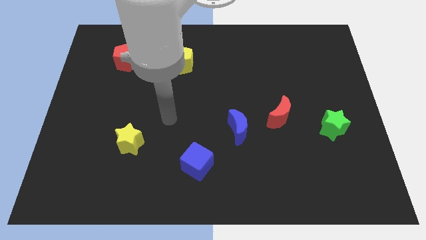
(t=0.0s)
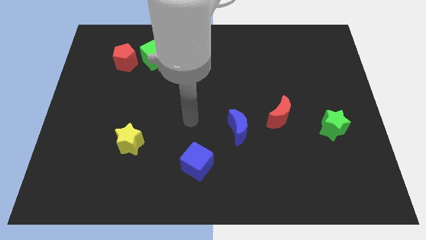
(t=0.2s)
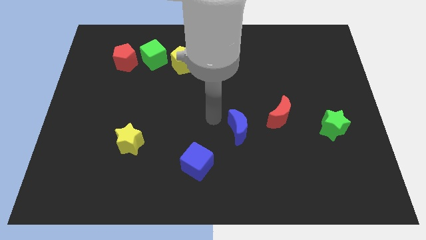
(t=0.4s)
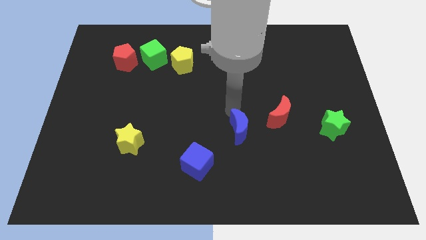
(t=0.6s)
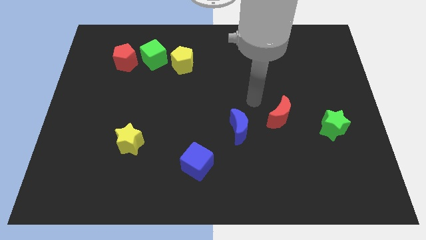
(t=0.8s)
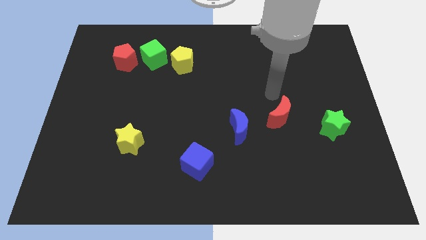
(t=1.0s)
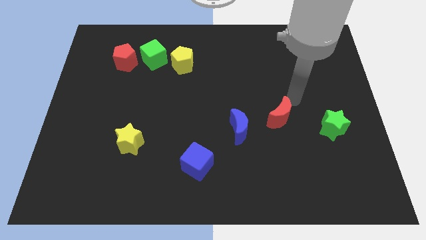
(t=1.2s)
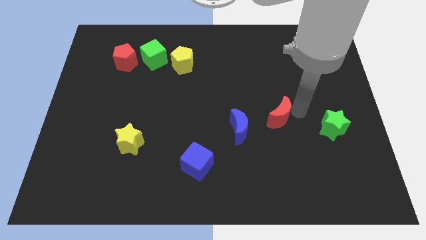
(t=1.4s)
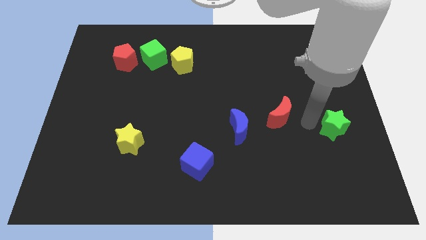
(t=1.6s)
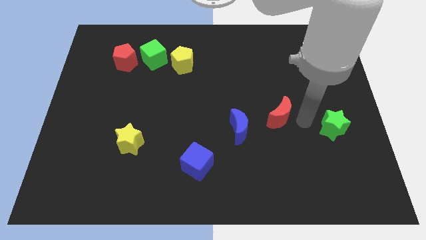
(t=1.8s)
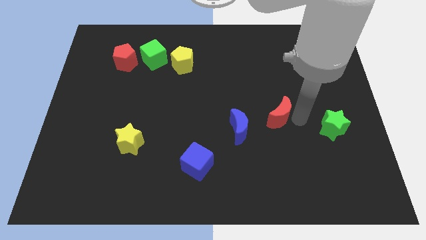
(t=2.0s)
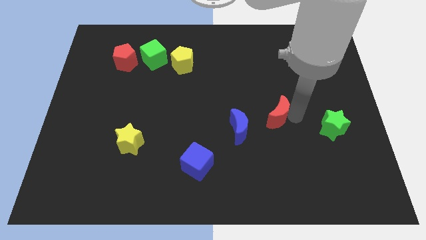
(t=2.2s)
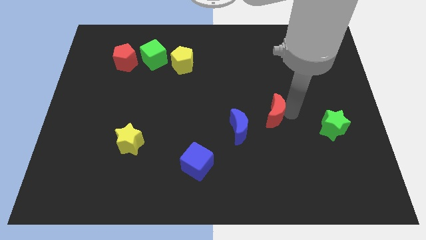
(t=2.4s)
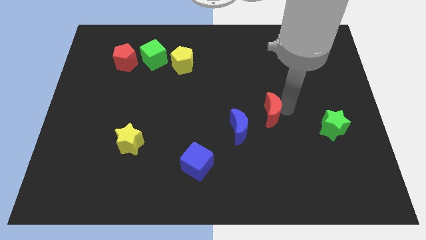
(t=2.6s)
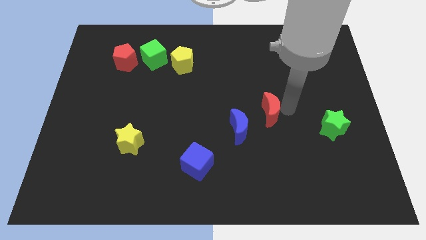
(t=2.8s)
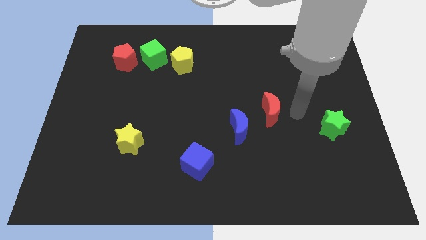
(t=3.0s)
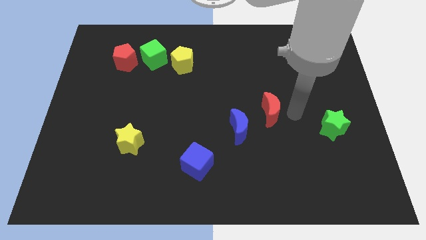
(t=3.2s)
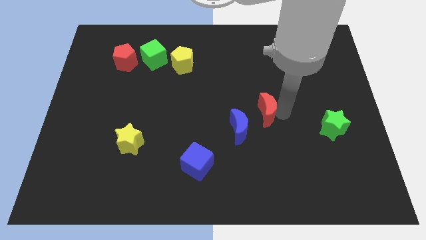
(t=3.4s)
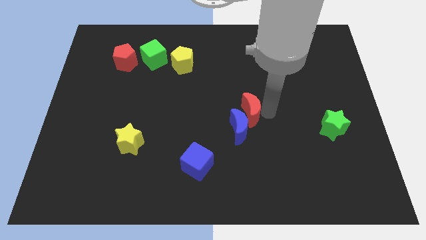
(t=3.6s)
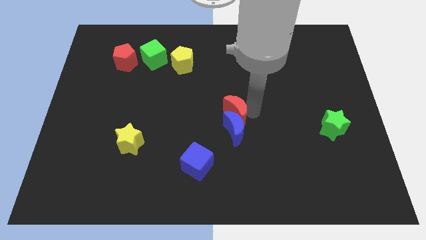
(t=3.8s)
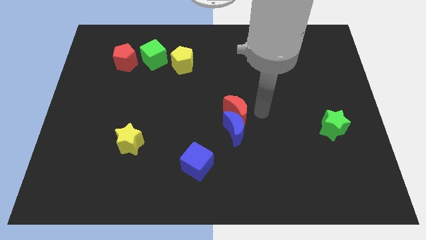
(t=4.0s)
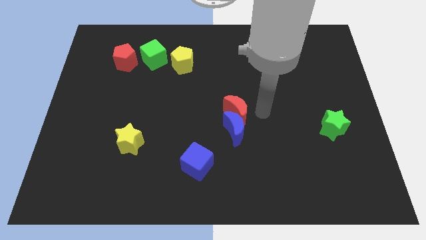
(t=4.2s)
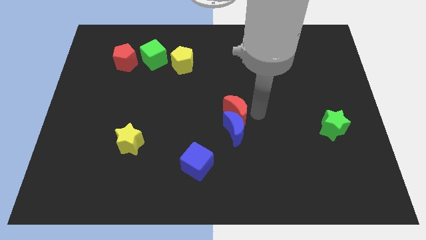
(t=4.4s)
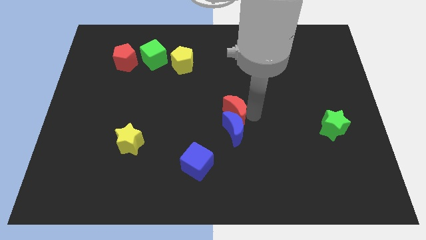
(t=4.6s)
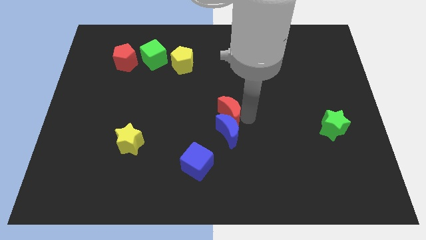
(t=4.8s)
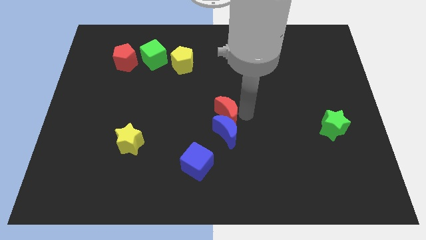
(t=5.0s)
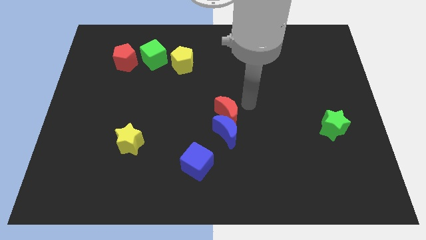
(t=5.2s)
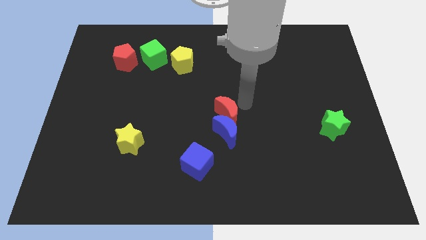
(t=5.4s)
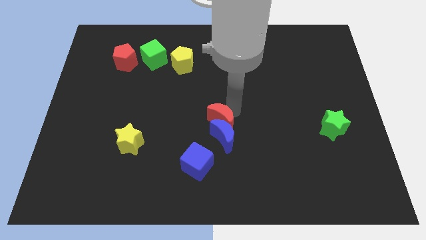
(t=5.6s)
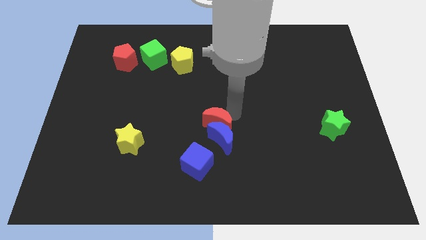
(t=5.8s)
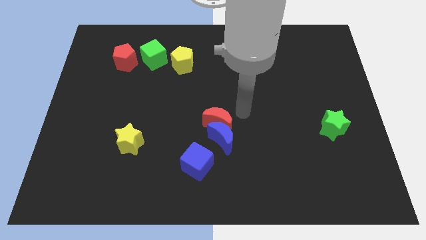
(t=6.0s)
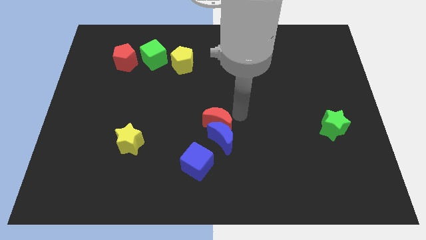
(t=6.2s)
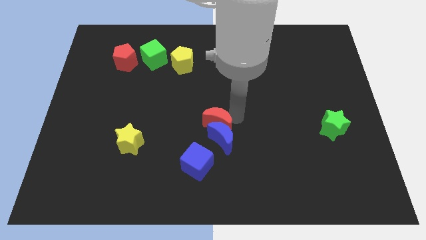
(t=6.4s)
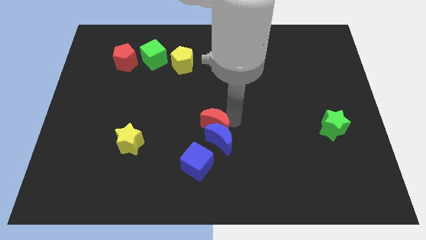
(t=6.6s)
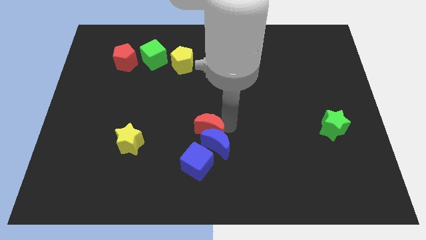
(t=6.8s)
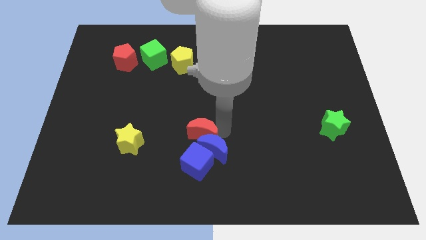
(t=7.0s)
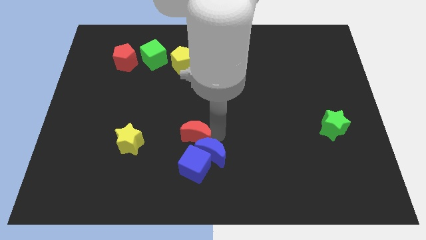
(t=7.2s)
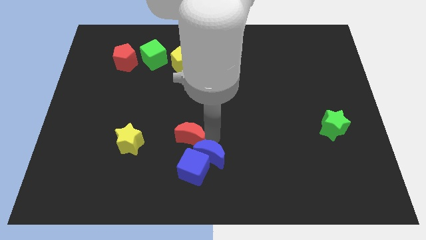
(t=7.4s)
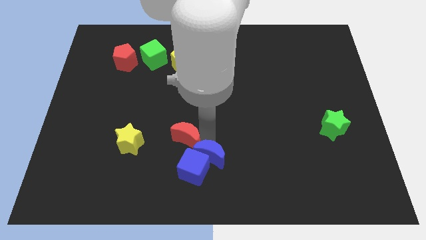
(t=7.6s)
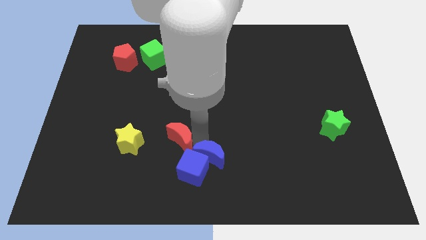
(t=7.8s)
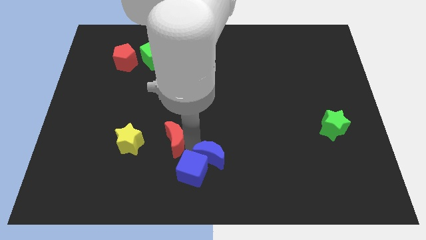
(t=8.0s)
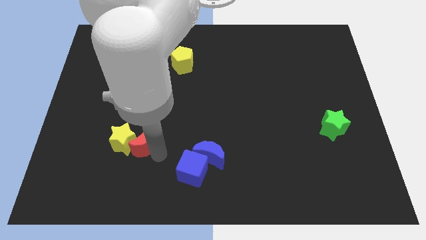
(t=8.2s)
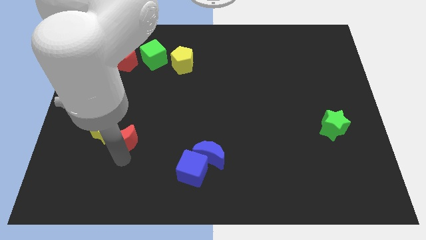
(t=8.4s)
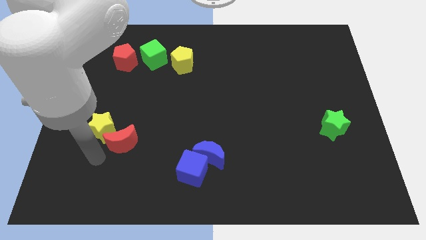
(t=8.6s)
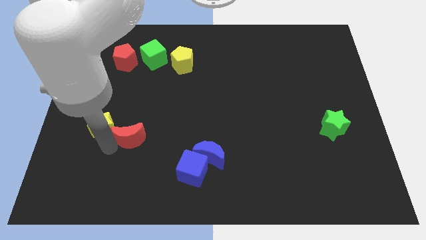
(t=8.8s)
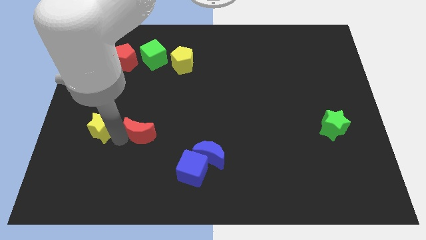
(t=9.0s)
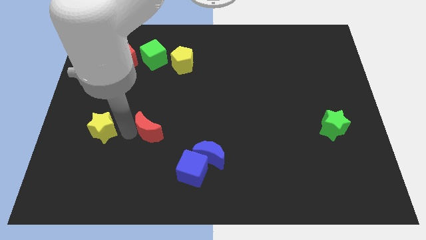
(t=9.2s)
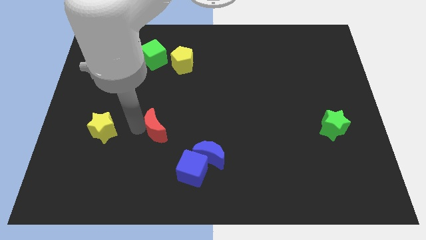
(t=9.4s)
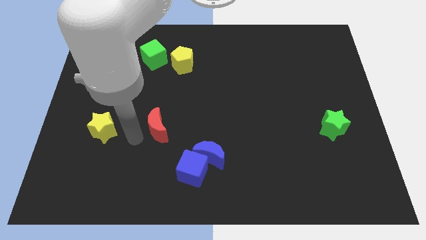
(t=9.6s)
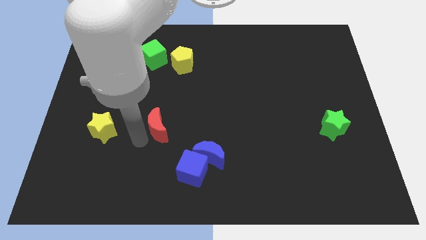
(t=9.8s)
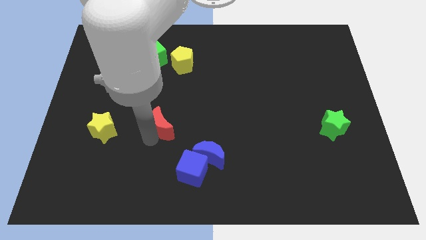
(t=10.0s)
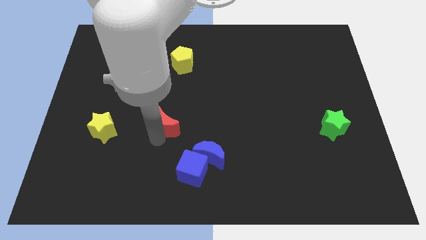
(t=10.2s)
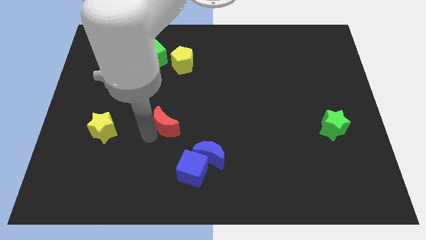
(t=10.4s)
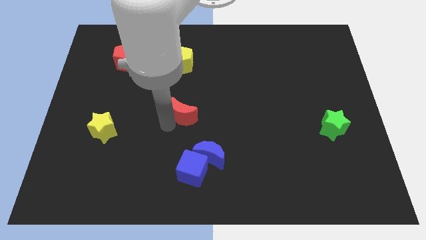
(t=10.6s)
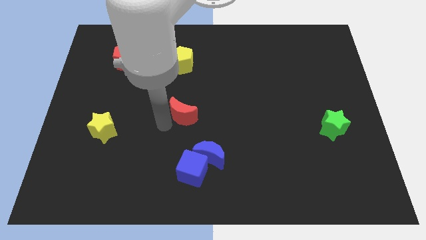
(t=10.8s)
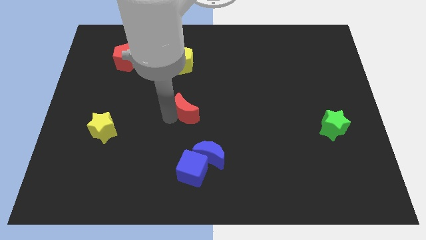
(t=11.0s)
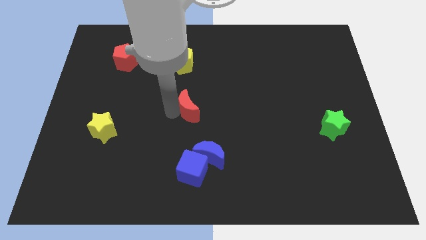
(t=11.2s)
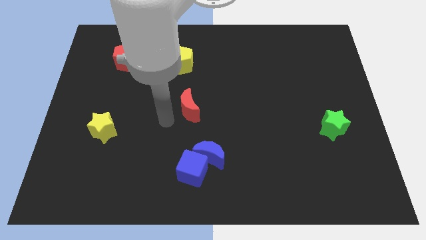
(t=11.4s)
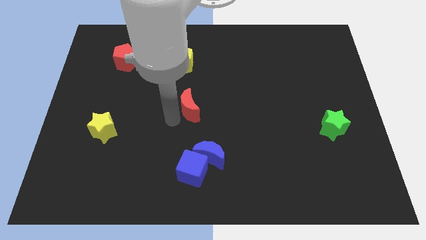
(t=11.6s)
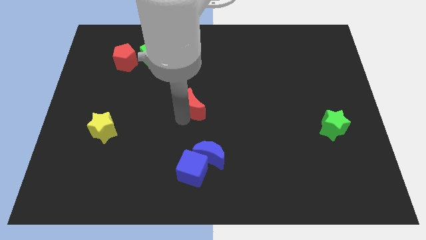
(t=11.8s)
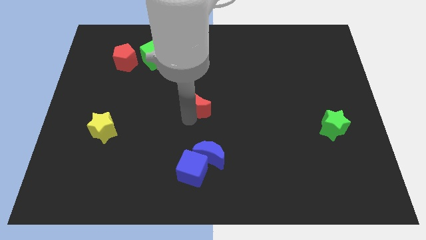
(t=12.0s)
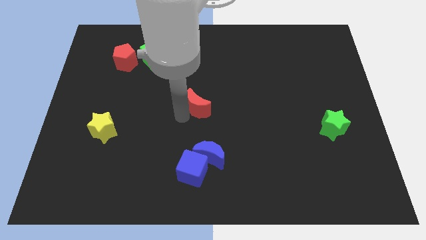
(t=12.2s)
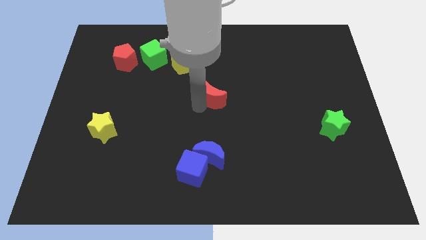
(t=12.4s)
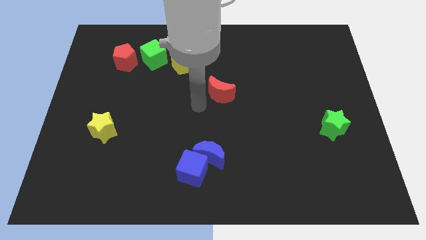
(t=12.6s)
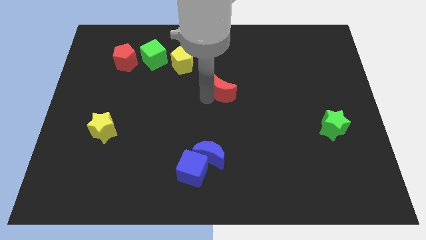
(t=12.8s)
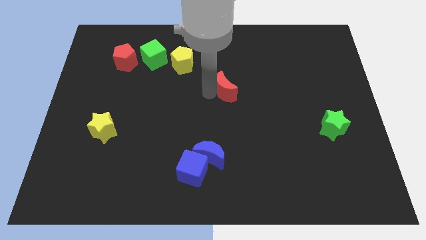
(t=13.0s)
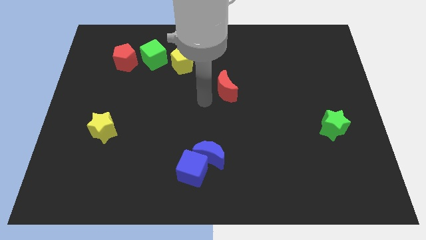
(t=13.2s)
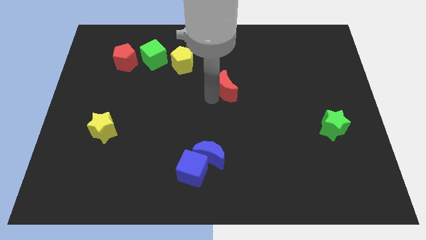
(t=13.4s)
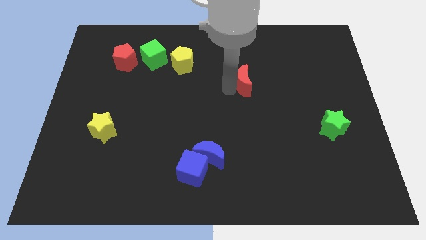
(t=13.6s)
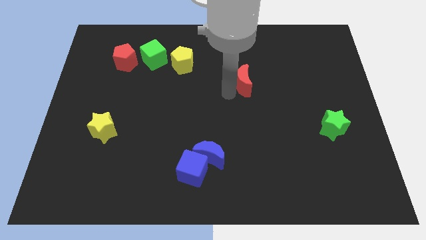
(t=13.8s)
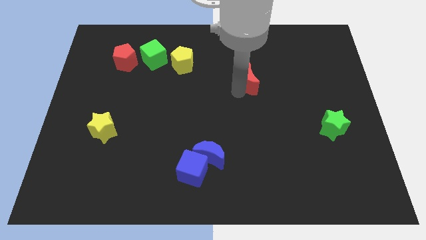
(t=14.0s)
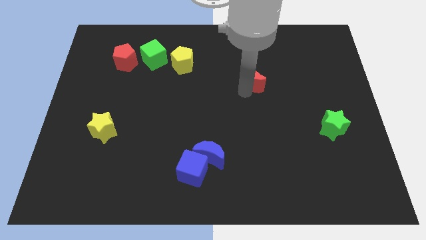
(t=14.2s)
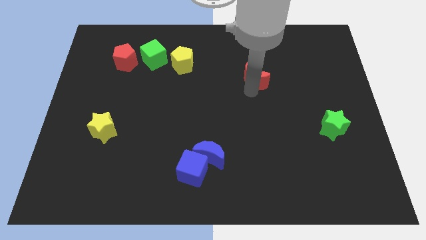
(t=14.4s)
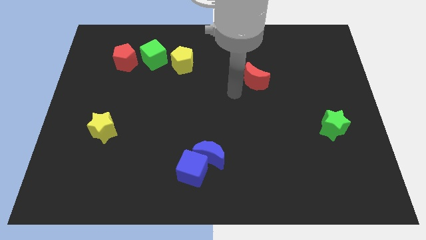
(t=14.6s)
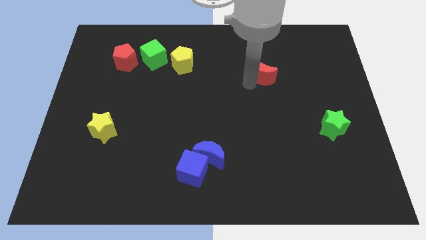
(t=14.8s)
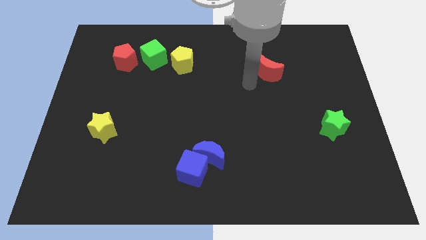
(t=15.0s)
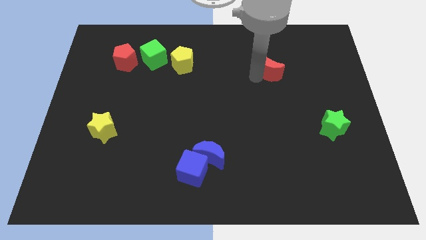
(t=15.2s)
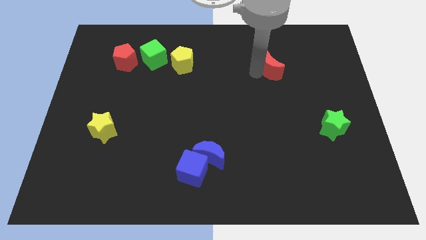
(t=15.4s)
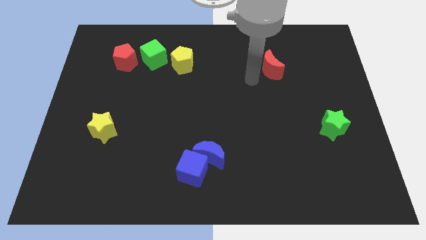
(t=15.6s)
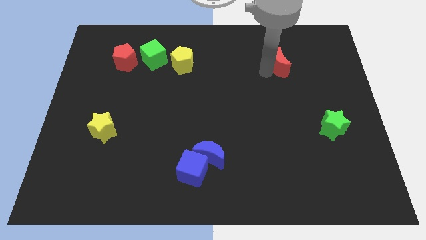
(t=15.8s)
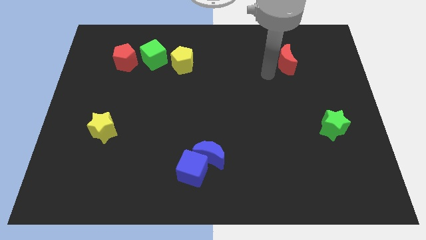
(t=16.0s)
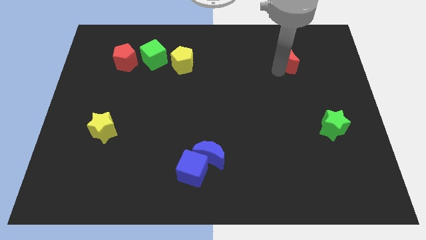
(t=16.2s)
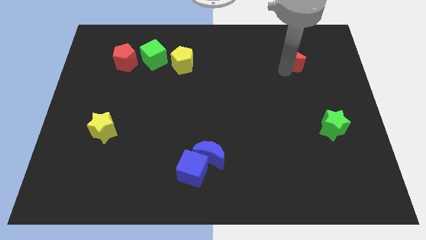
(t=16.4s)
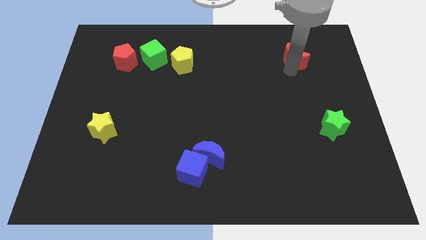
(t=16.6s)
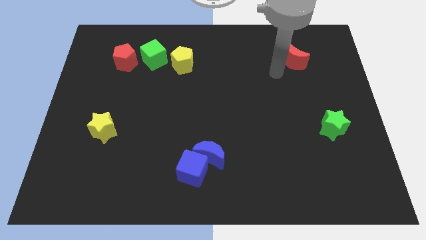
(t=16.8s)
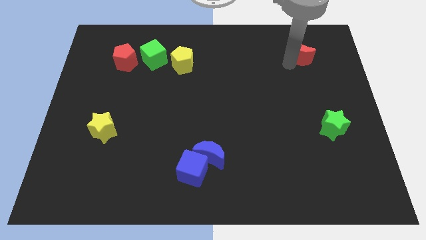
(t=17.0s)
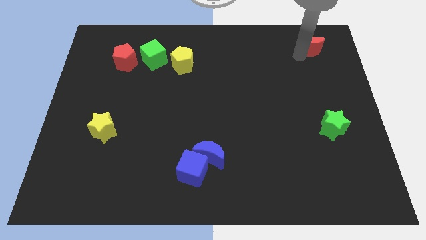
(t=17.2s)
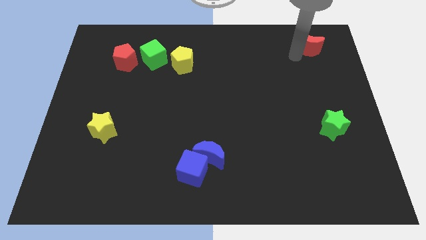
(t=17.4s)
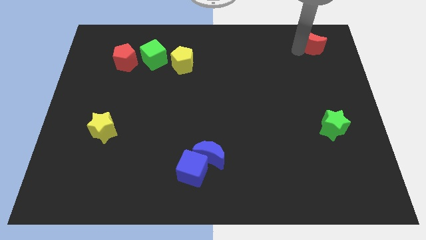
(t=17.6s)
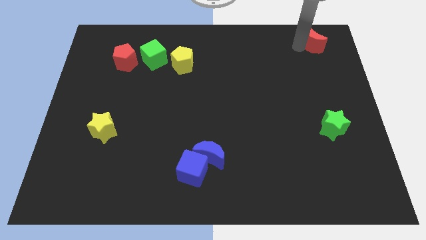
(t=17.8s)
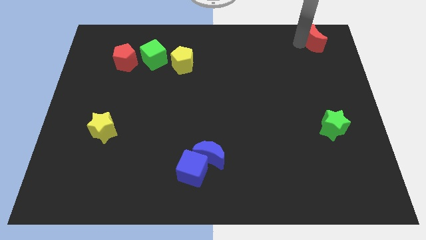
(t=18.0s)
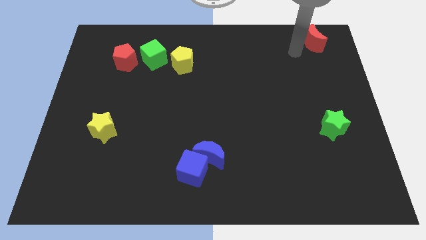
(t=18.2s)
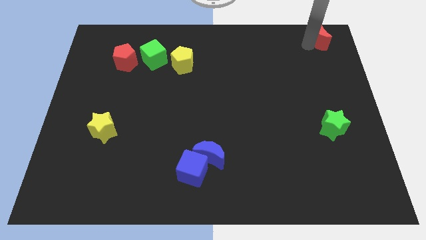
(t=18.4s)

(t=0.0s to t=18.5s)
put the red moon to the top right
